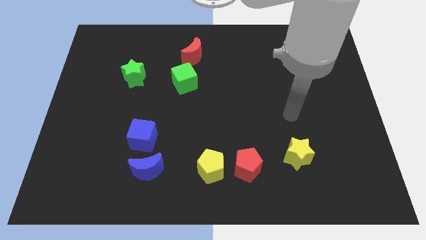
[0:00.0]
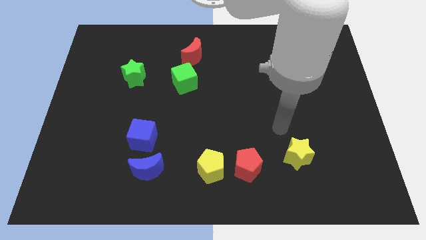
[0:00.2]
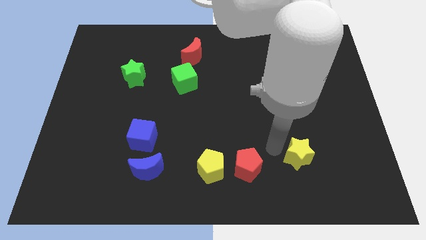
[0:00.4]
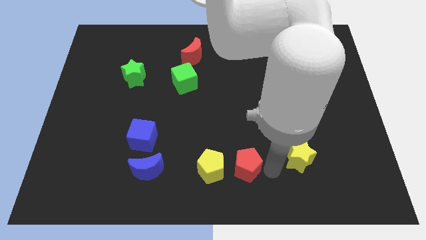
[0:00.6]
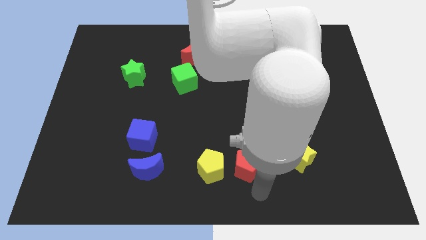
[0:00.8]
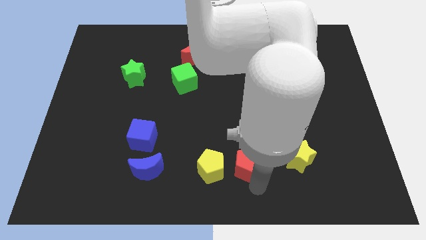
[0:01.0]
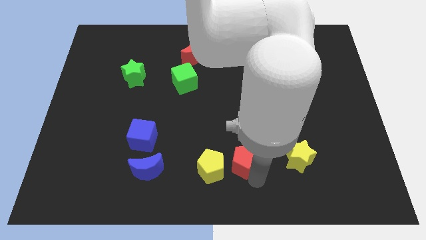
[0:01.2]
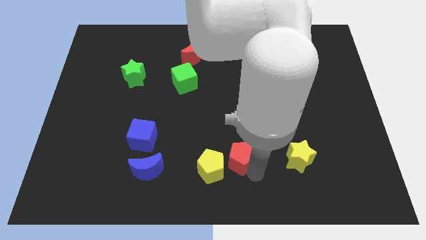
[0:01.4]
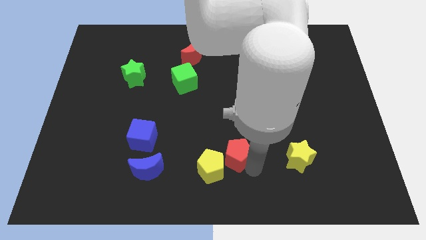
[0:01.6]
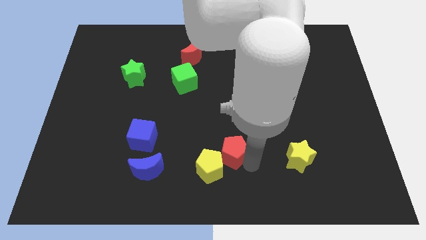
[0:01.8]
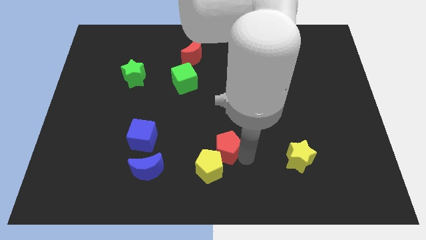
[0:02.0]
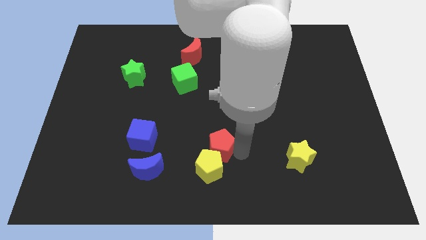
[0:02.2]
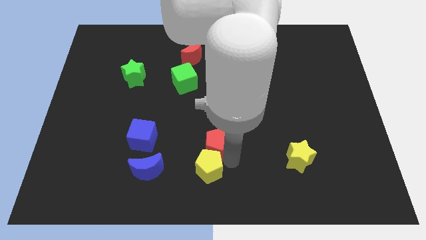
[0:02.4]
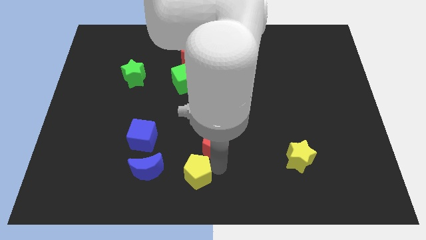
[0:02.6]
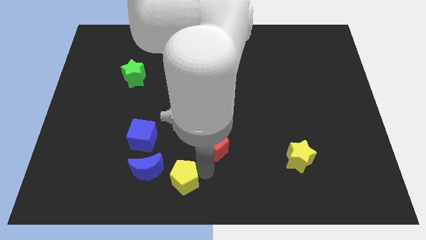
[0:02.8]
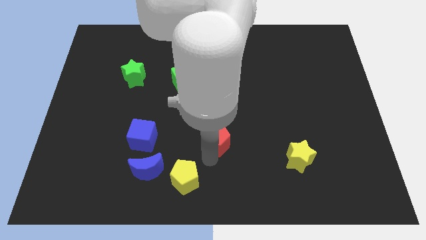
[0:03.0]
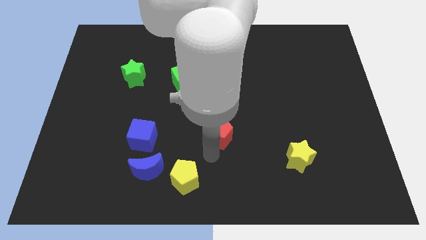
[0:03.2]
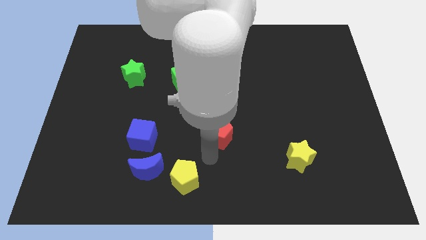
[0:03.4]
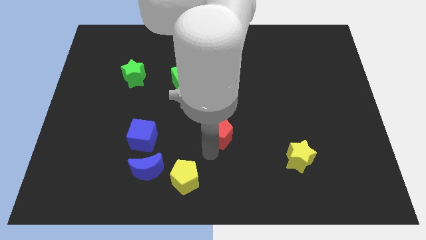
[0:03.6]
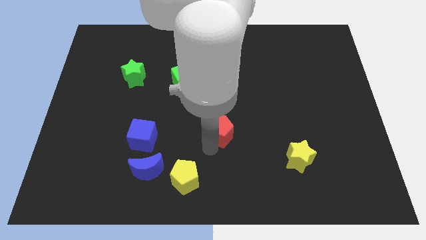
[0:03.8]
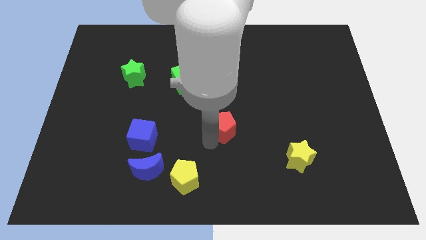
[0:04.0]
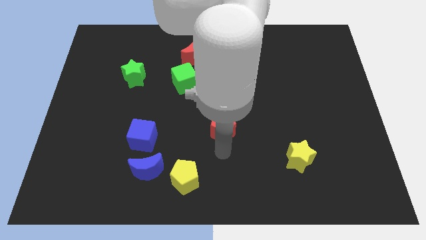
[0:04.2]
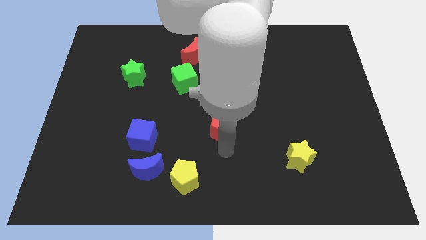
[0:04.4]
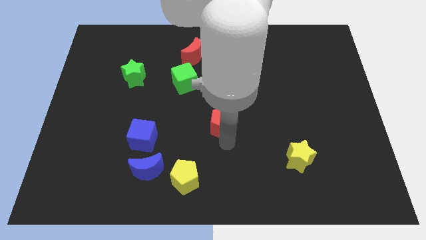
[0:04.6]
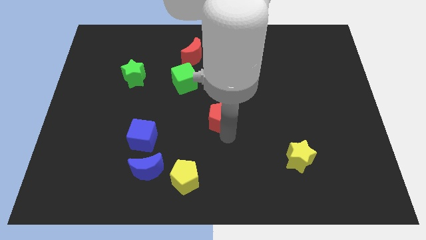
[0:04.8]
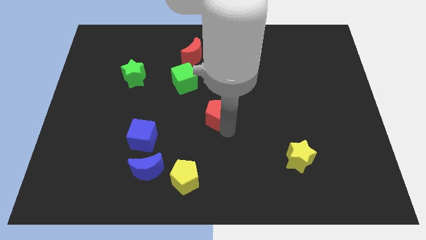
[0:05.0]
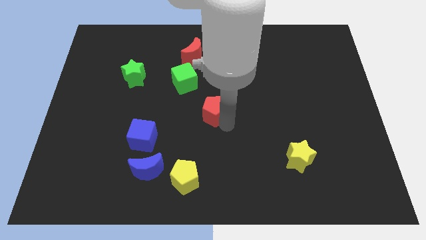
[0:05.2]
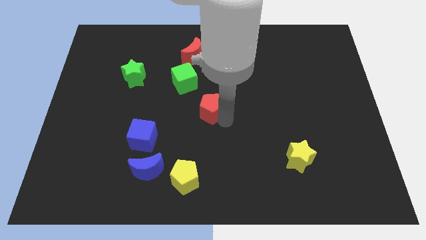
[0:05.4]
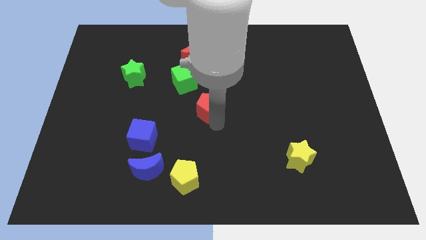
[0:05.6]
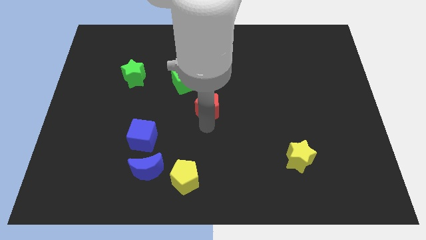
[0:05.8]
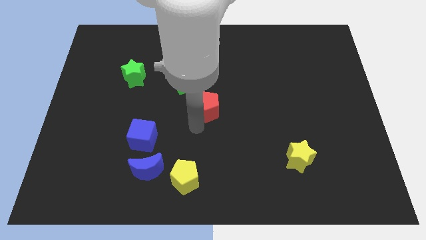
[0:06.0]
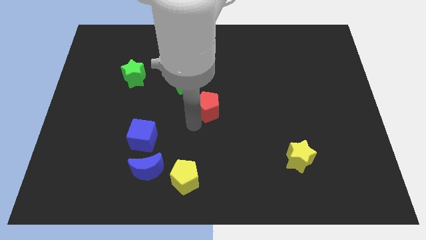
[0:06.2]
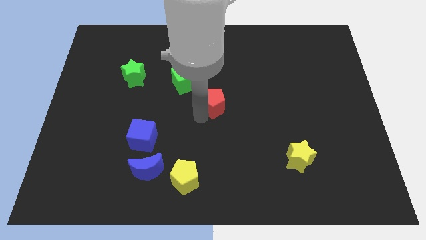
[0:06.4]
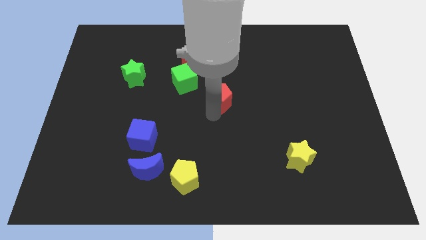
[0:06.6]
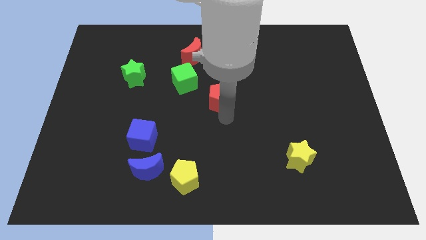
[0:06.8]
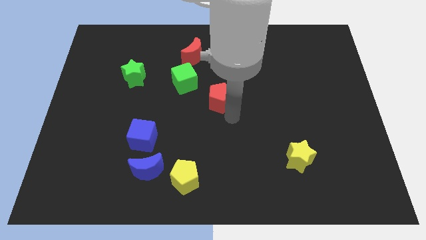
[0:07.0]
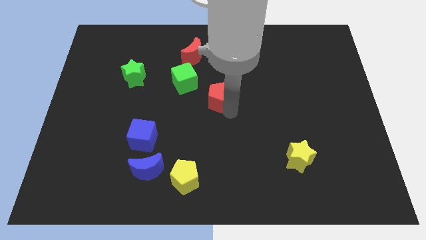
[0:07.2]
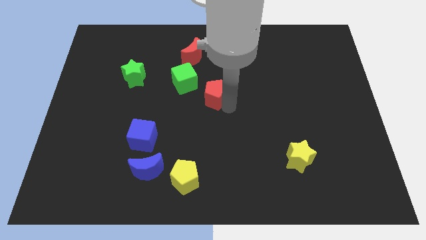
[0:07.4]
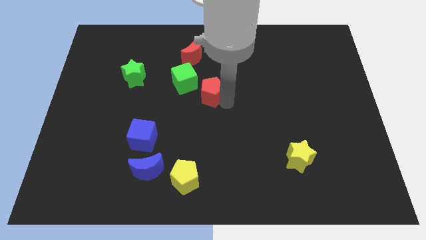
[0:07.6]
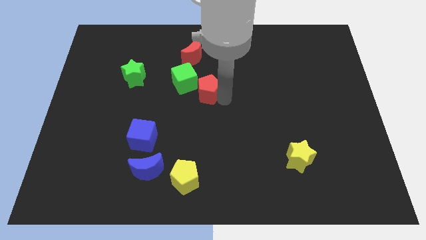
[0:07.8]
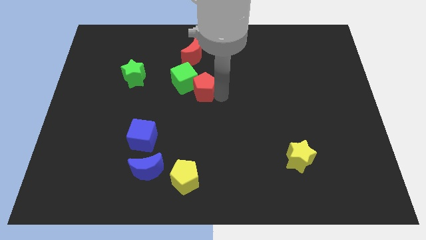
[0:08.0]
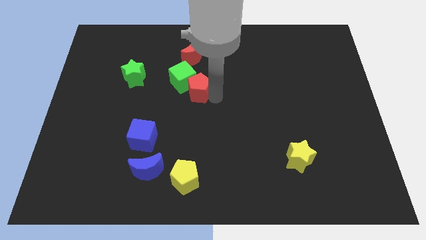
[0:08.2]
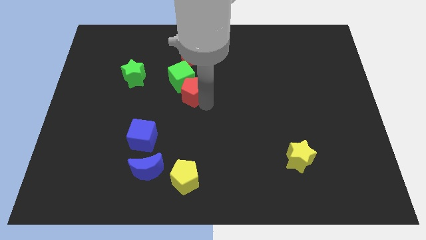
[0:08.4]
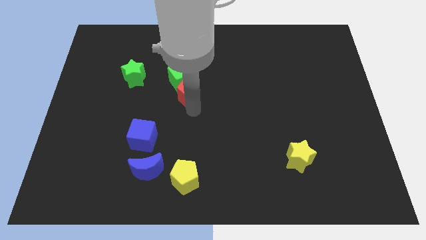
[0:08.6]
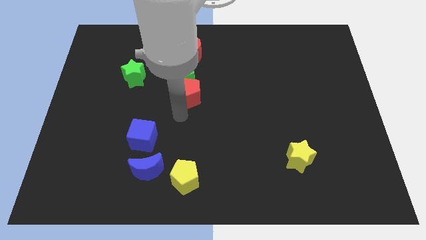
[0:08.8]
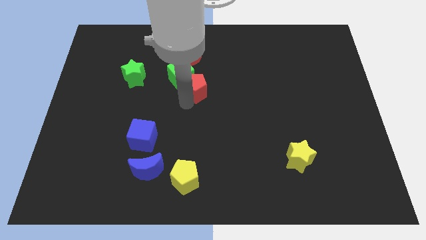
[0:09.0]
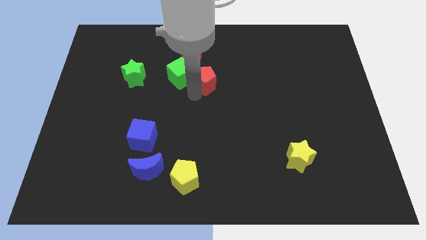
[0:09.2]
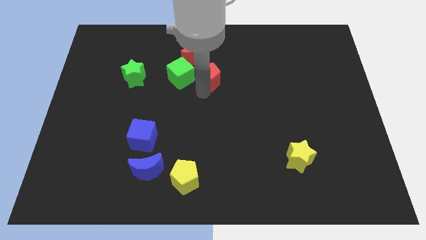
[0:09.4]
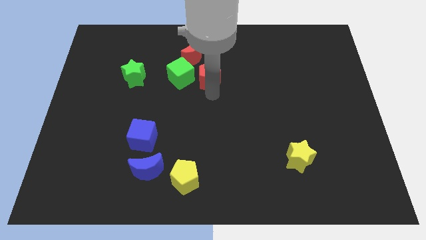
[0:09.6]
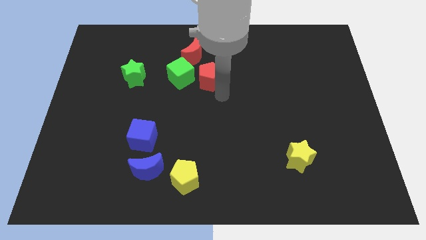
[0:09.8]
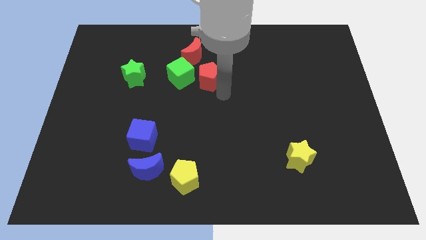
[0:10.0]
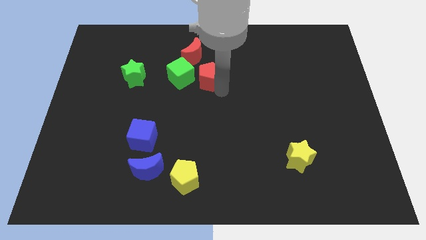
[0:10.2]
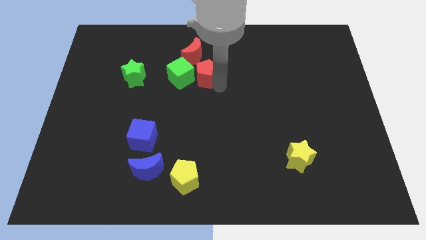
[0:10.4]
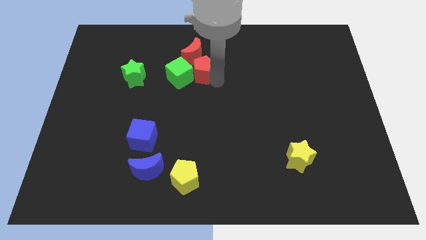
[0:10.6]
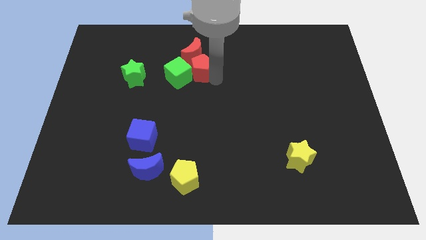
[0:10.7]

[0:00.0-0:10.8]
slide the red pentagon close to the red moon
